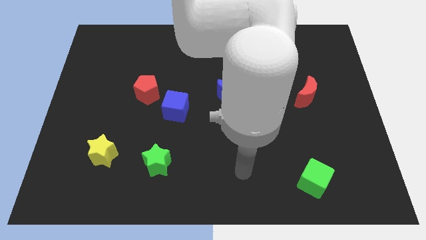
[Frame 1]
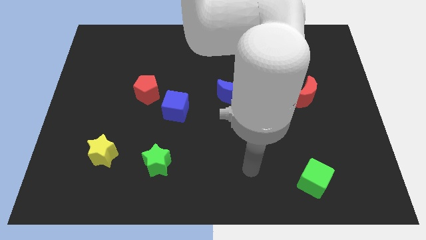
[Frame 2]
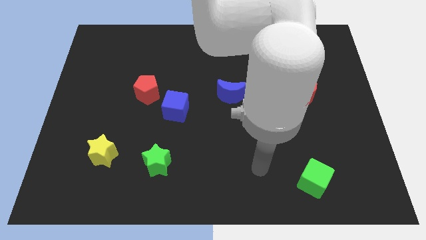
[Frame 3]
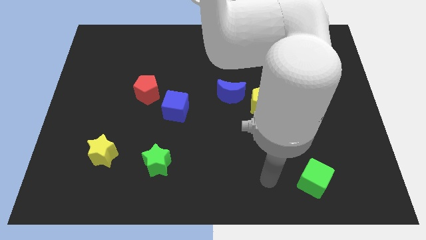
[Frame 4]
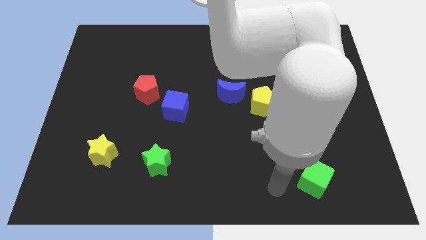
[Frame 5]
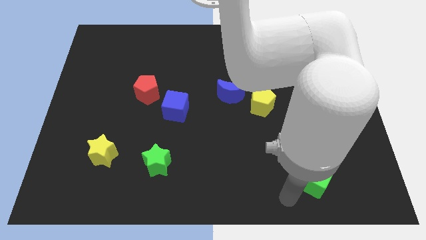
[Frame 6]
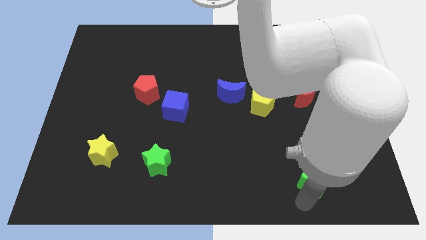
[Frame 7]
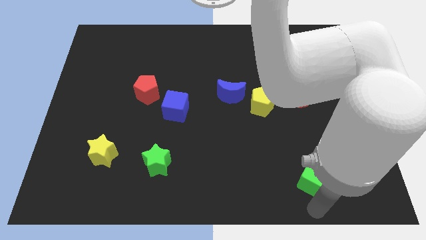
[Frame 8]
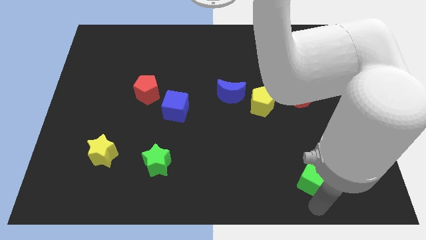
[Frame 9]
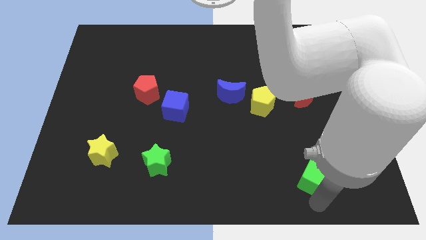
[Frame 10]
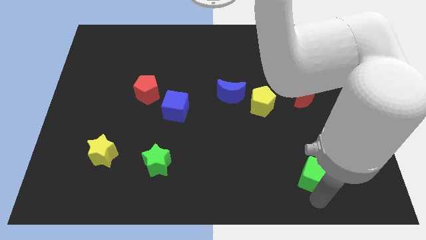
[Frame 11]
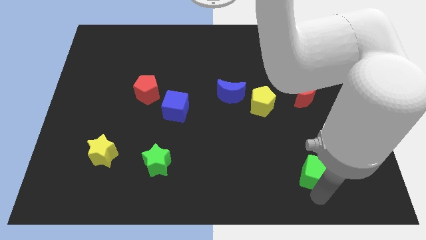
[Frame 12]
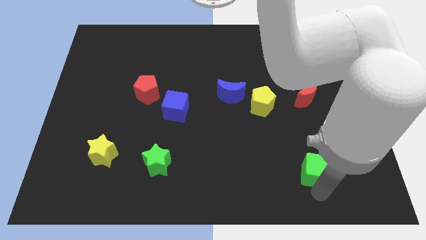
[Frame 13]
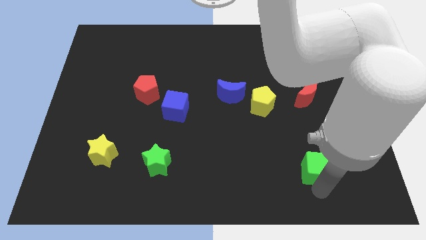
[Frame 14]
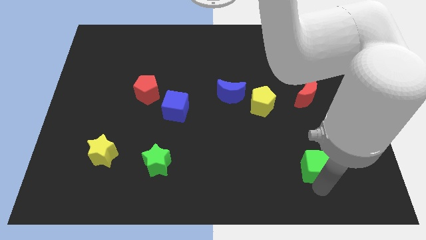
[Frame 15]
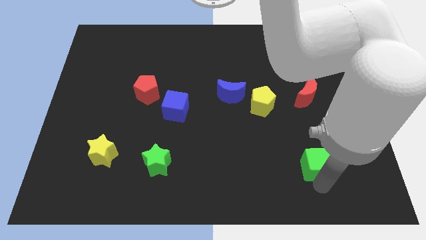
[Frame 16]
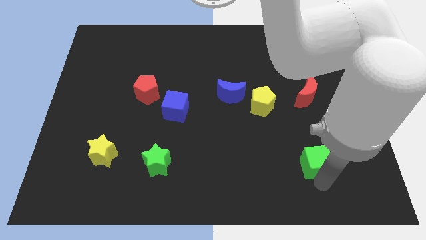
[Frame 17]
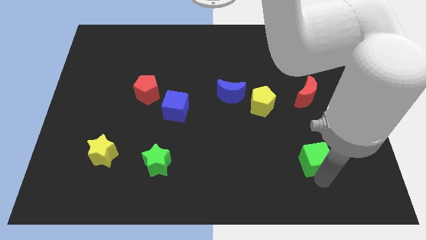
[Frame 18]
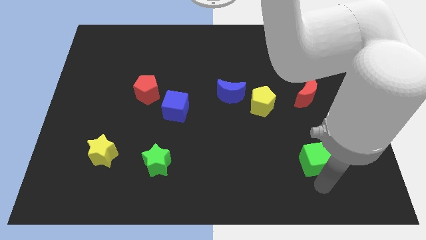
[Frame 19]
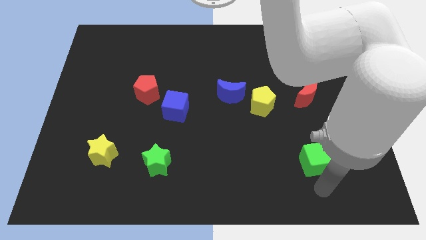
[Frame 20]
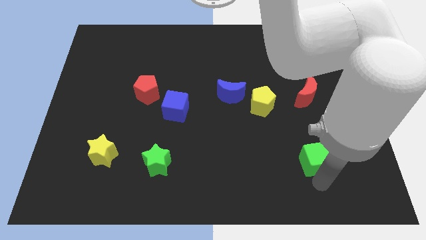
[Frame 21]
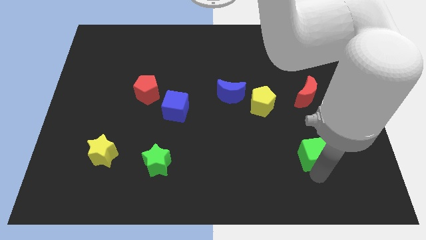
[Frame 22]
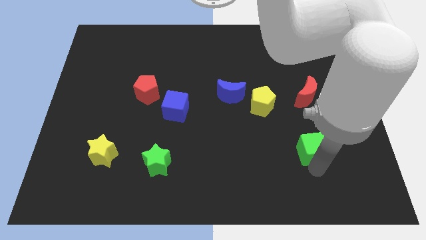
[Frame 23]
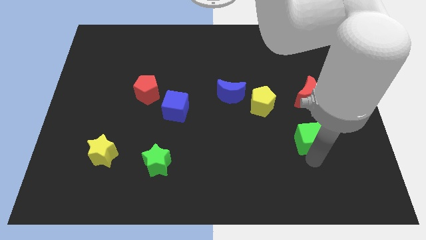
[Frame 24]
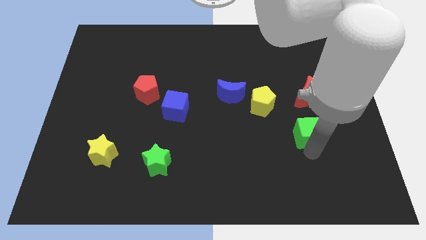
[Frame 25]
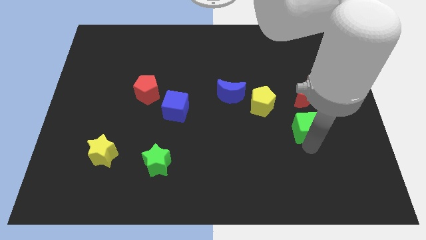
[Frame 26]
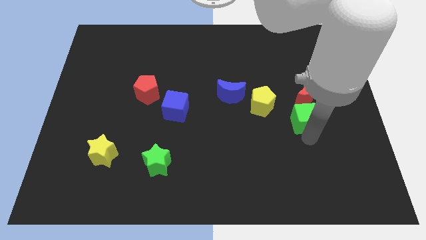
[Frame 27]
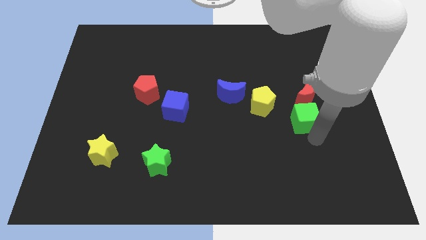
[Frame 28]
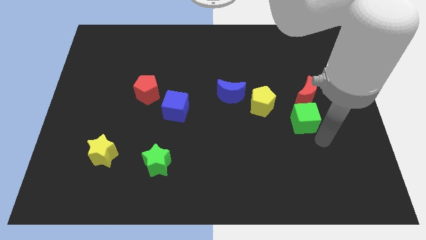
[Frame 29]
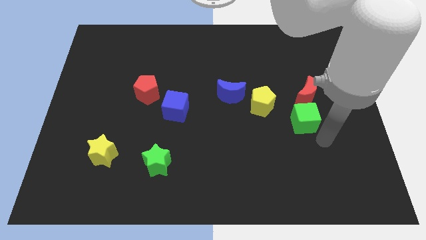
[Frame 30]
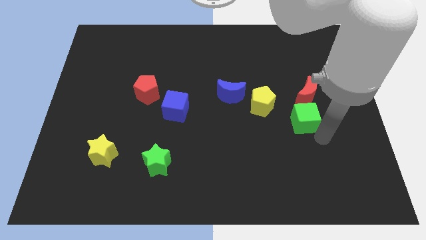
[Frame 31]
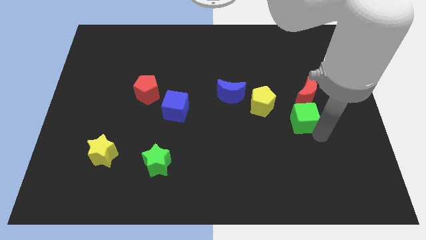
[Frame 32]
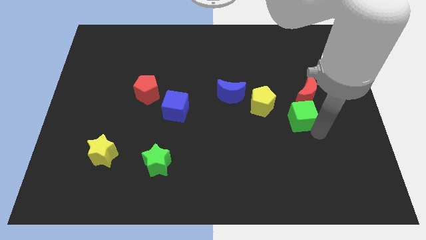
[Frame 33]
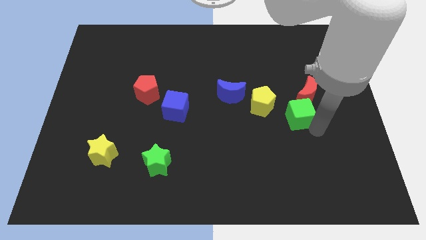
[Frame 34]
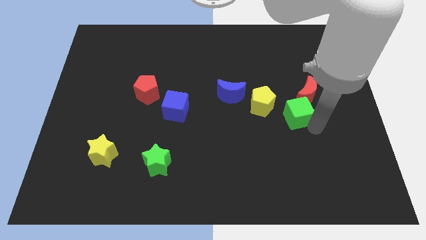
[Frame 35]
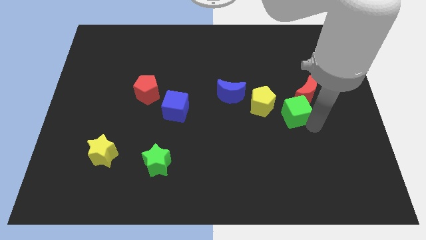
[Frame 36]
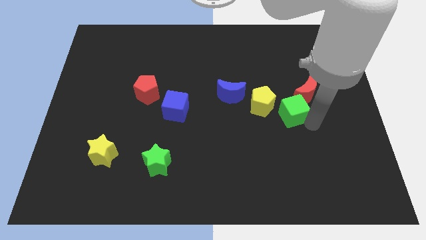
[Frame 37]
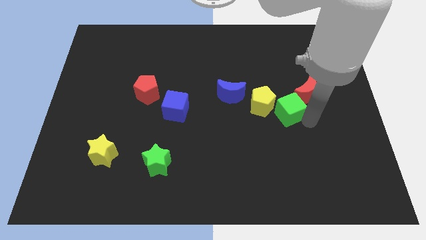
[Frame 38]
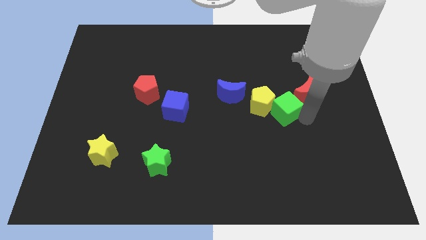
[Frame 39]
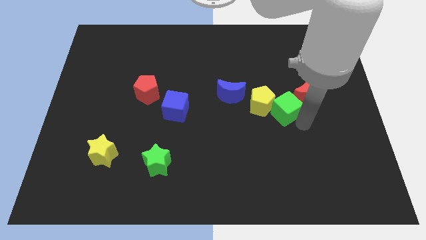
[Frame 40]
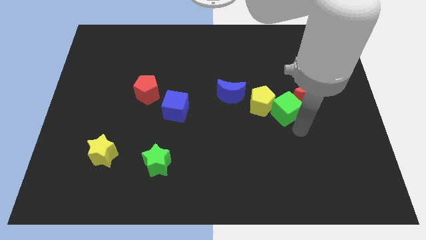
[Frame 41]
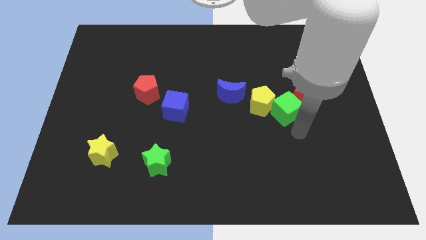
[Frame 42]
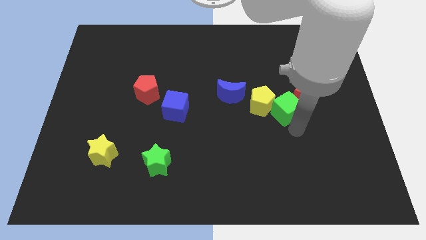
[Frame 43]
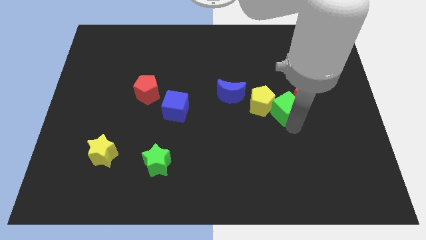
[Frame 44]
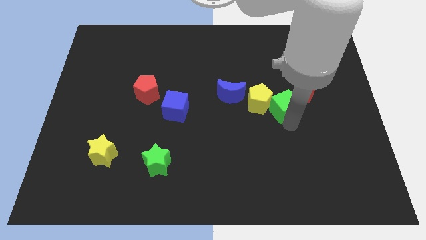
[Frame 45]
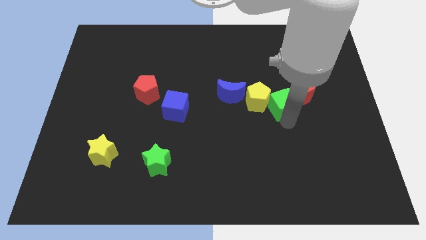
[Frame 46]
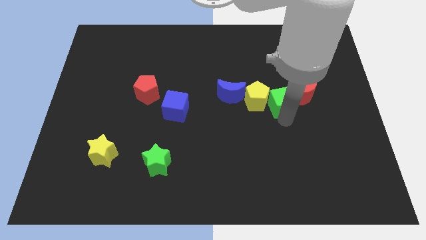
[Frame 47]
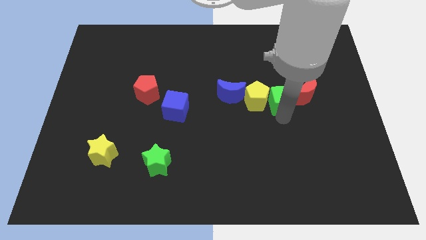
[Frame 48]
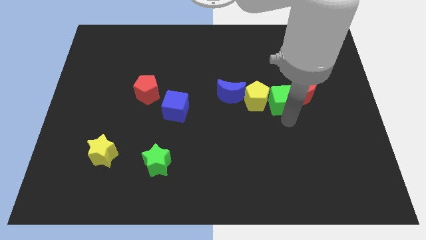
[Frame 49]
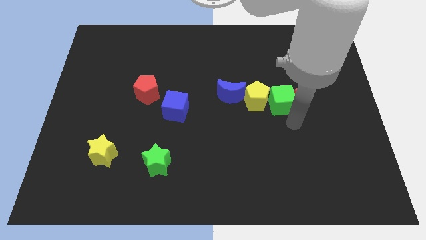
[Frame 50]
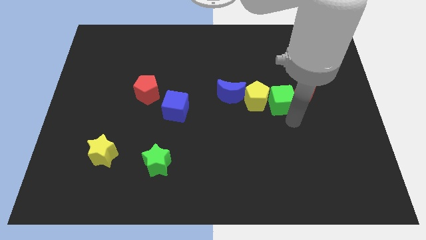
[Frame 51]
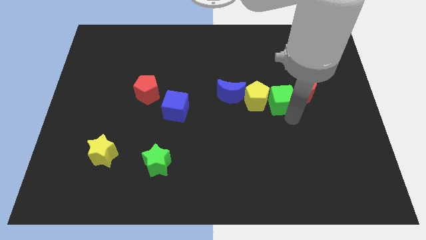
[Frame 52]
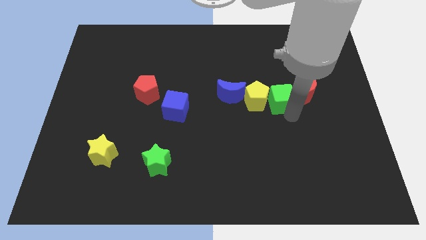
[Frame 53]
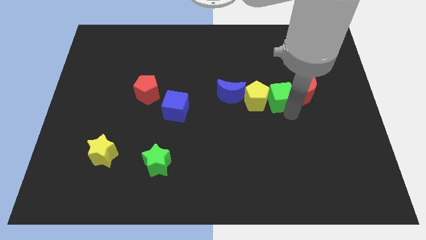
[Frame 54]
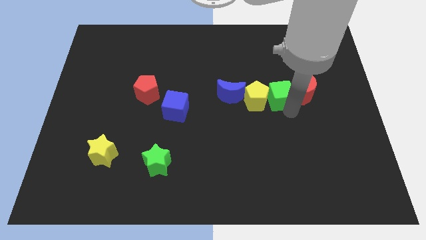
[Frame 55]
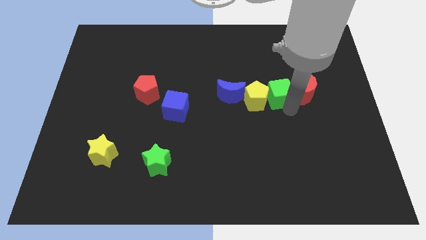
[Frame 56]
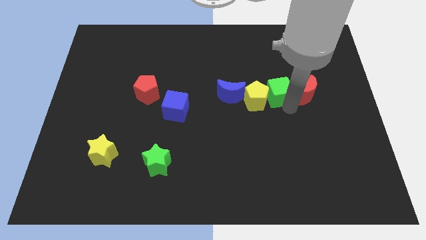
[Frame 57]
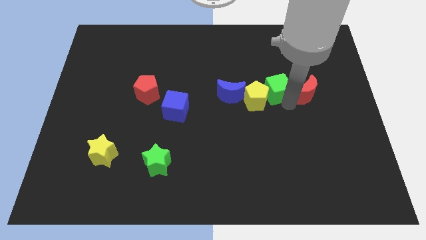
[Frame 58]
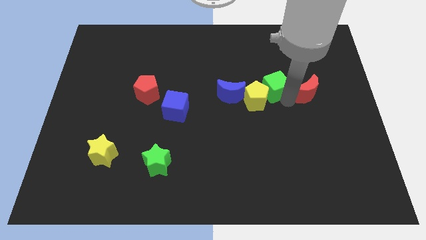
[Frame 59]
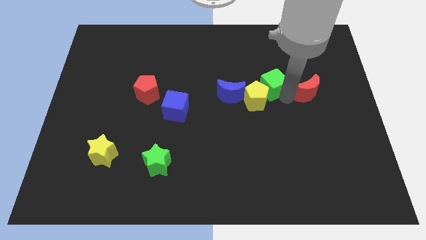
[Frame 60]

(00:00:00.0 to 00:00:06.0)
push the green cube to the top side of the yellow pentagon

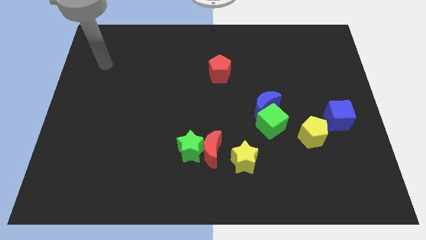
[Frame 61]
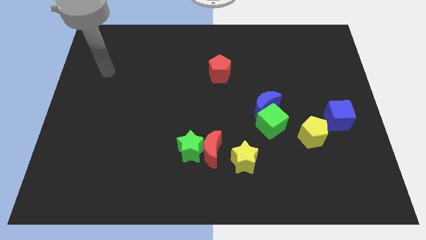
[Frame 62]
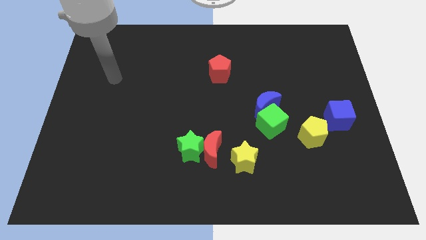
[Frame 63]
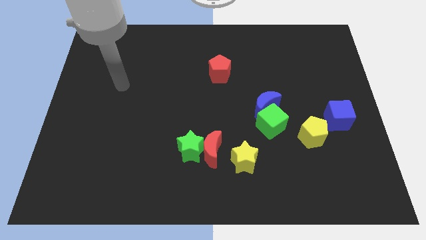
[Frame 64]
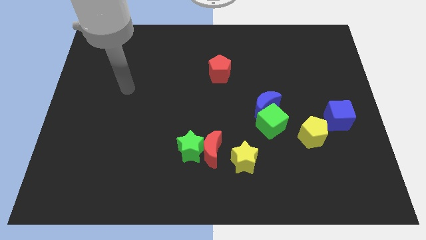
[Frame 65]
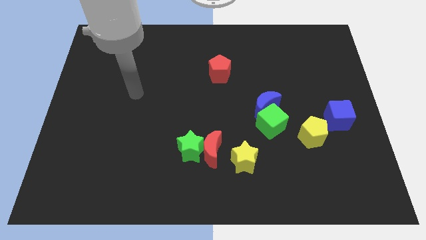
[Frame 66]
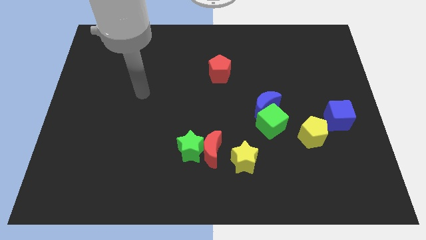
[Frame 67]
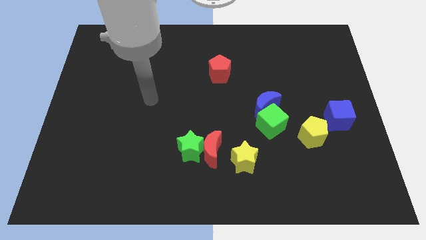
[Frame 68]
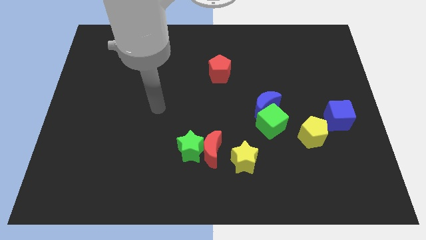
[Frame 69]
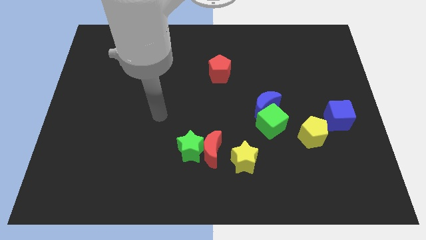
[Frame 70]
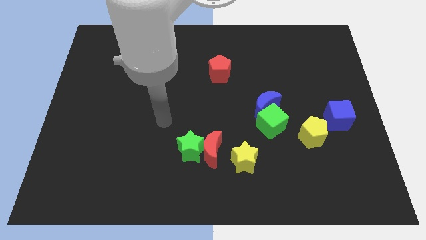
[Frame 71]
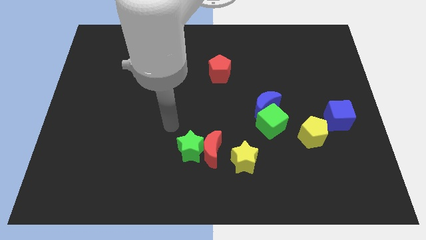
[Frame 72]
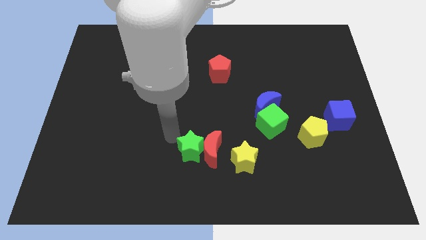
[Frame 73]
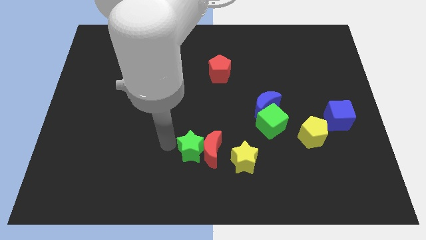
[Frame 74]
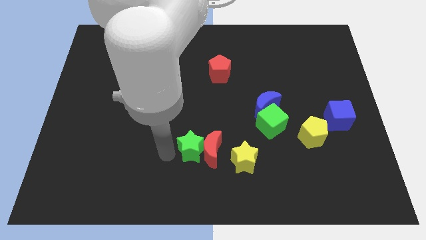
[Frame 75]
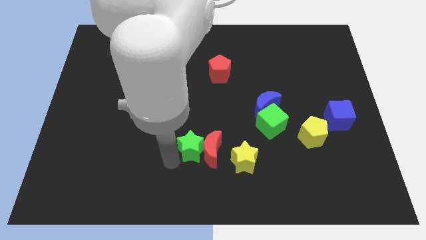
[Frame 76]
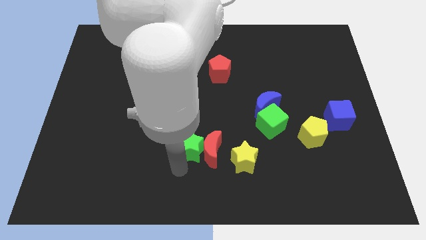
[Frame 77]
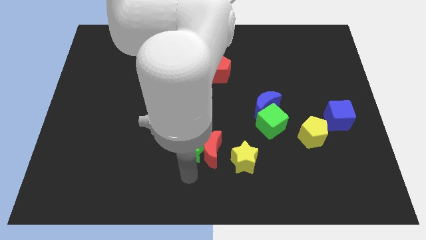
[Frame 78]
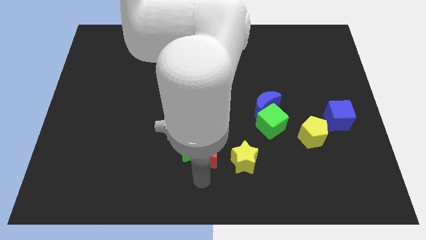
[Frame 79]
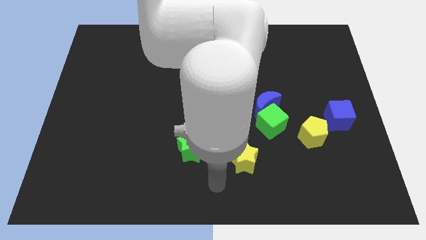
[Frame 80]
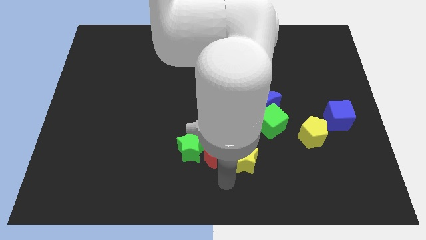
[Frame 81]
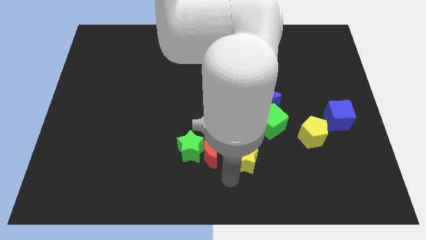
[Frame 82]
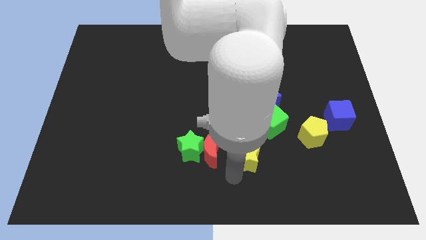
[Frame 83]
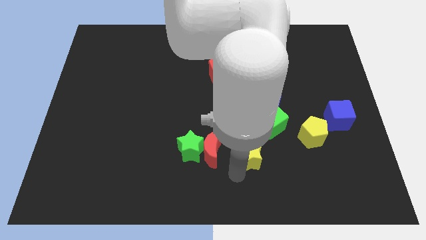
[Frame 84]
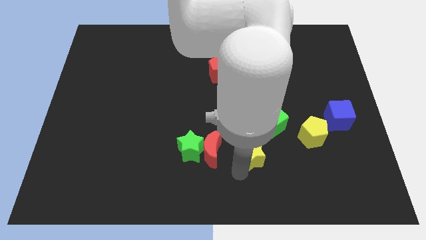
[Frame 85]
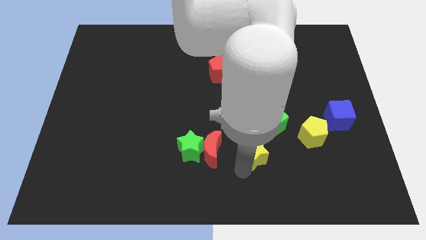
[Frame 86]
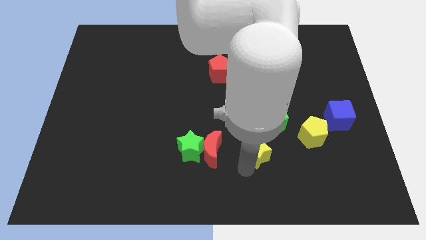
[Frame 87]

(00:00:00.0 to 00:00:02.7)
slide the yellow star to the left side of the yellow pentagon
